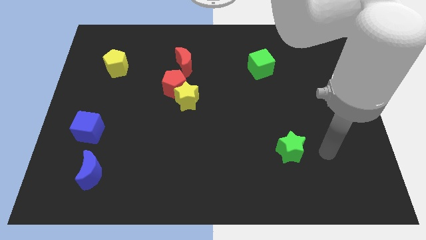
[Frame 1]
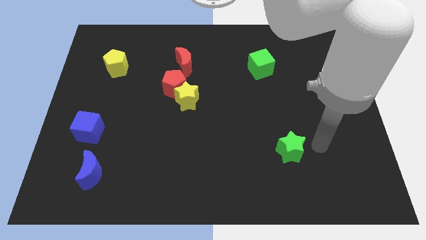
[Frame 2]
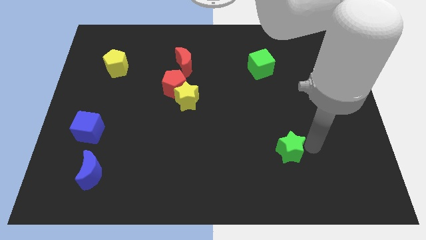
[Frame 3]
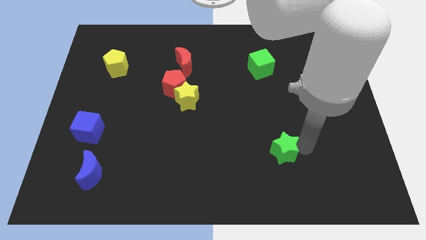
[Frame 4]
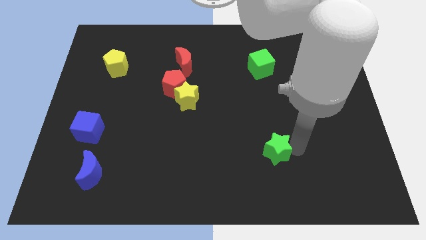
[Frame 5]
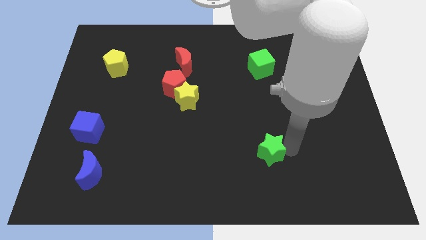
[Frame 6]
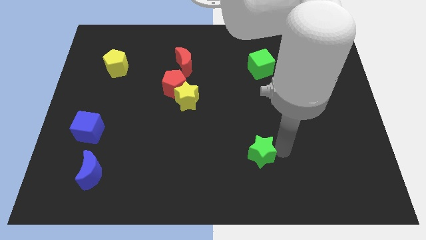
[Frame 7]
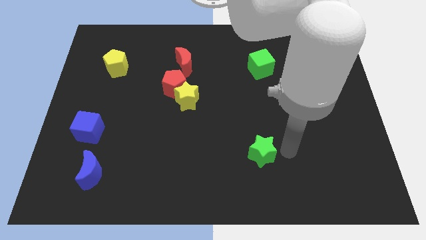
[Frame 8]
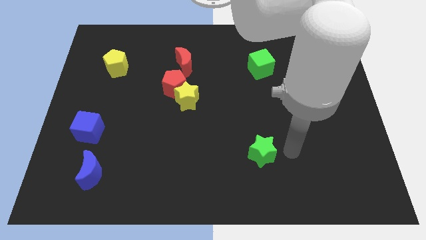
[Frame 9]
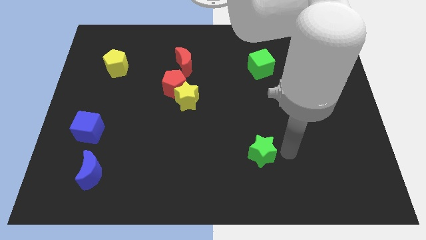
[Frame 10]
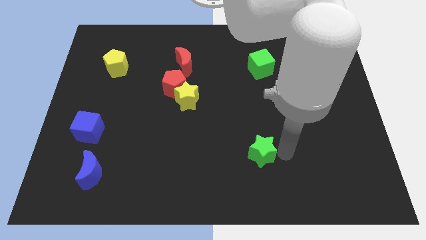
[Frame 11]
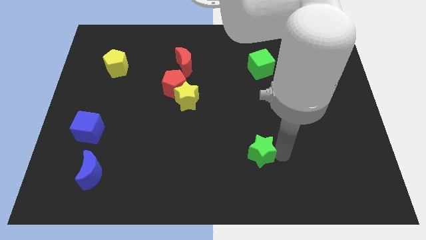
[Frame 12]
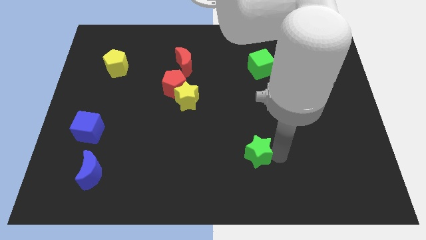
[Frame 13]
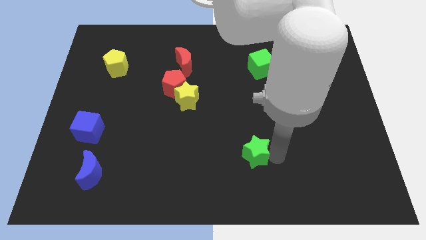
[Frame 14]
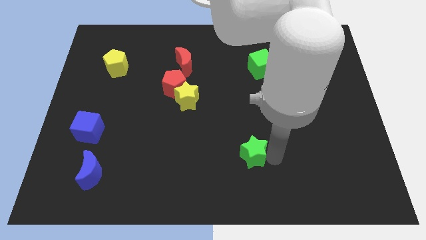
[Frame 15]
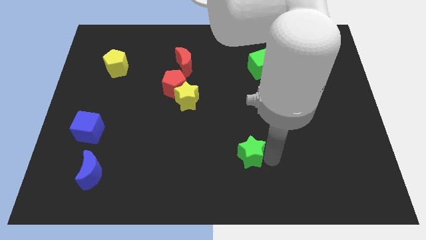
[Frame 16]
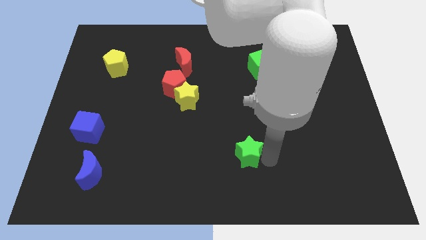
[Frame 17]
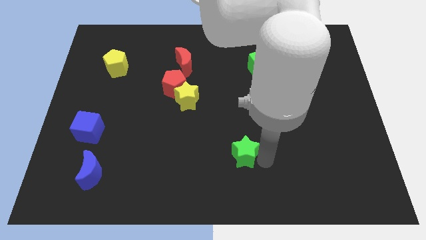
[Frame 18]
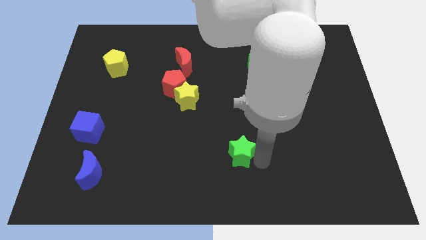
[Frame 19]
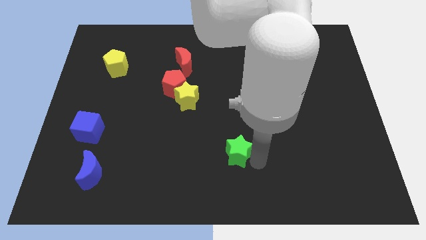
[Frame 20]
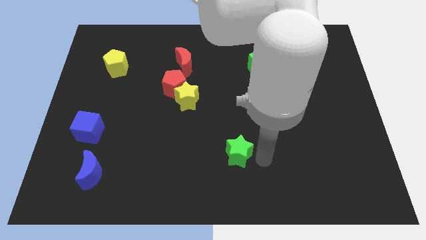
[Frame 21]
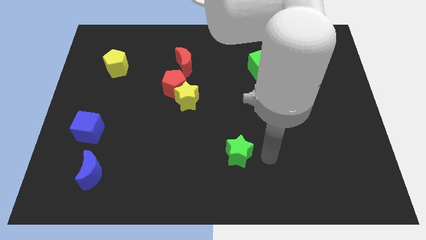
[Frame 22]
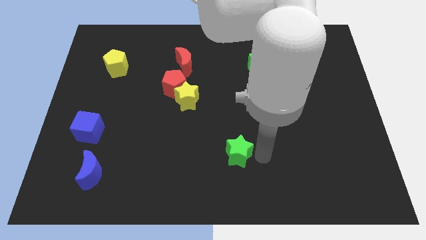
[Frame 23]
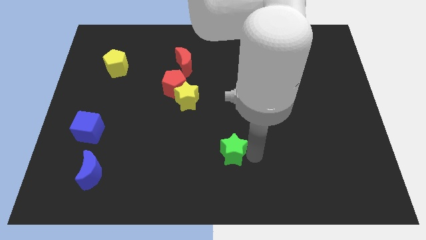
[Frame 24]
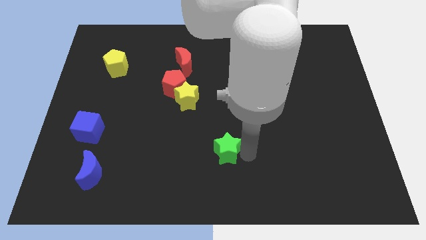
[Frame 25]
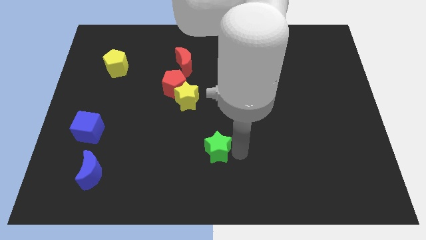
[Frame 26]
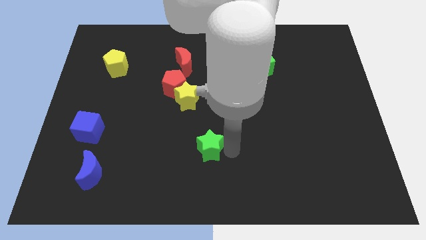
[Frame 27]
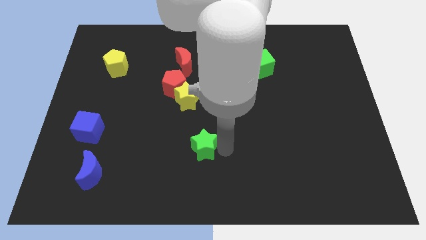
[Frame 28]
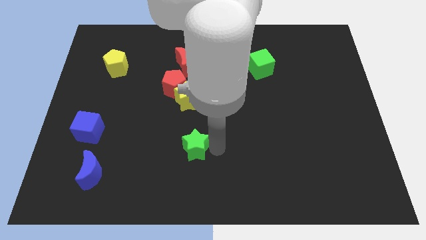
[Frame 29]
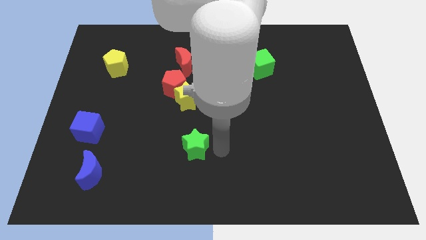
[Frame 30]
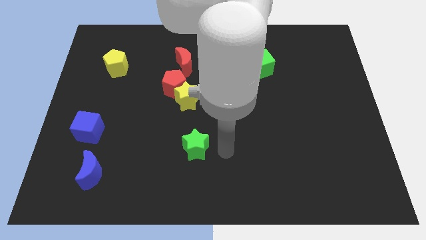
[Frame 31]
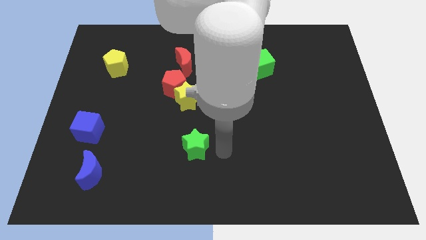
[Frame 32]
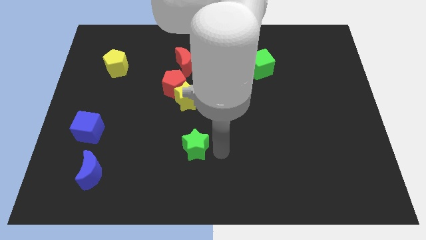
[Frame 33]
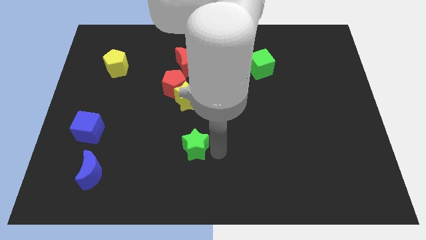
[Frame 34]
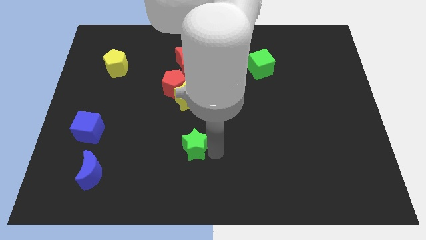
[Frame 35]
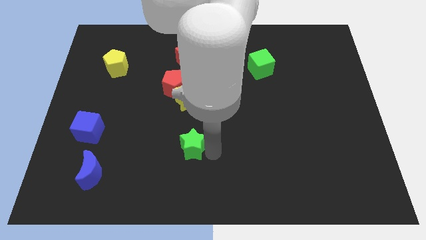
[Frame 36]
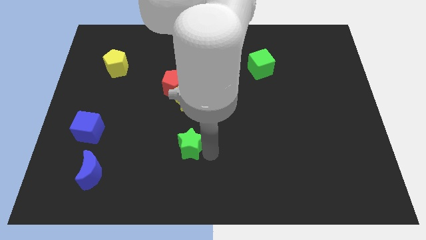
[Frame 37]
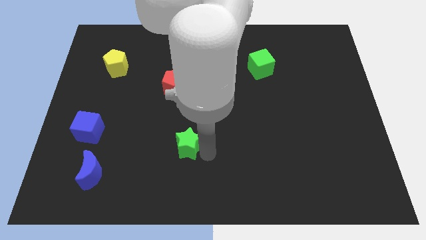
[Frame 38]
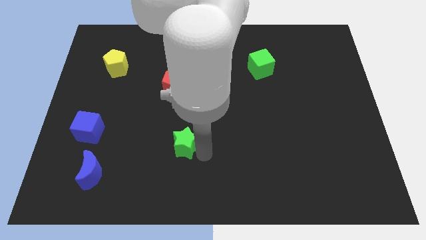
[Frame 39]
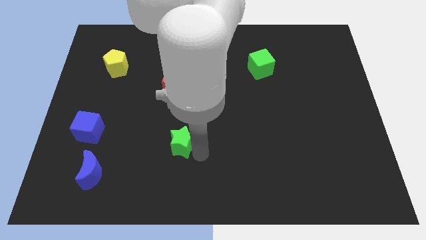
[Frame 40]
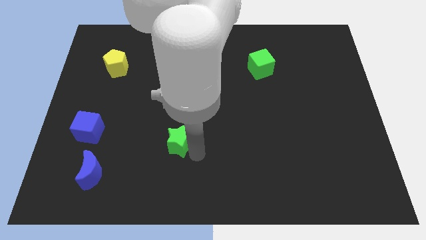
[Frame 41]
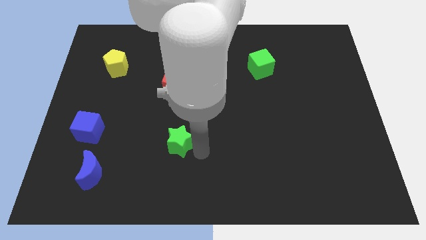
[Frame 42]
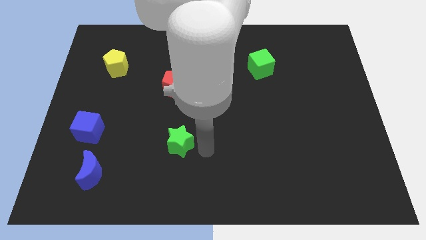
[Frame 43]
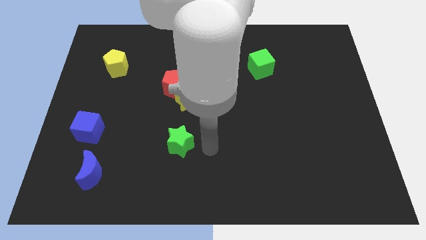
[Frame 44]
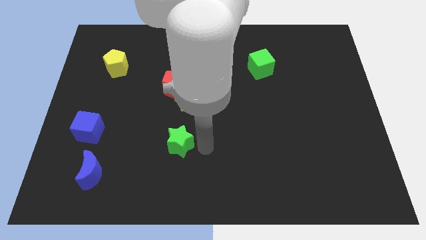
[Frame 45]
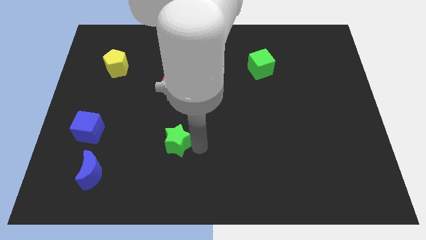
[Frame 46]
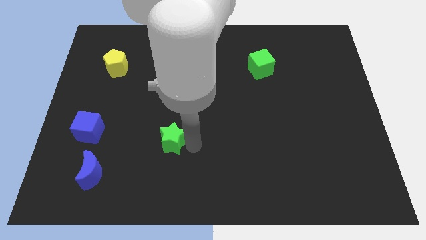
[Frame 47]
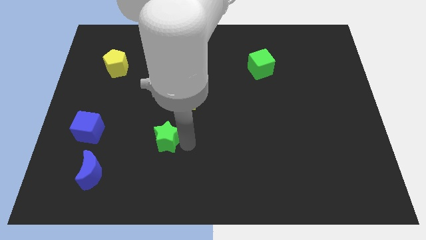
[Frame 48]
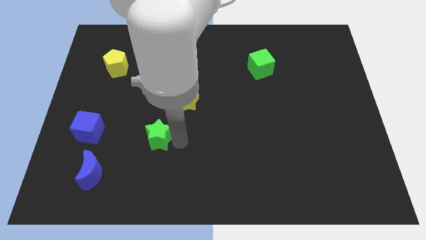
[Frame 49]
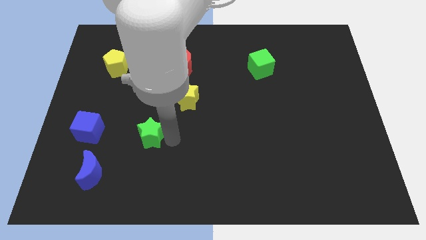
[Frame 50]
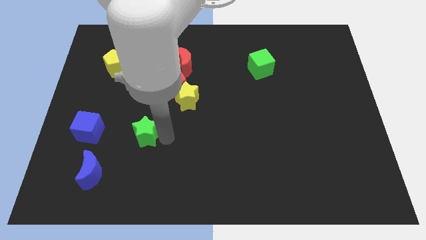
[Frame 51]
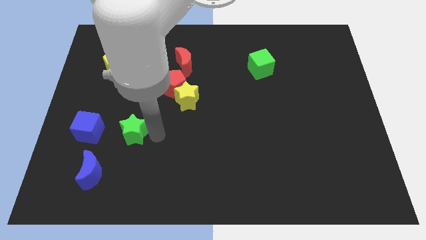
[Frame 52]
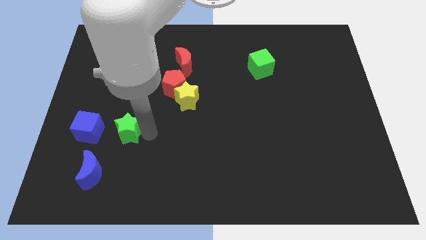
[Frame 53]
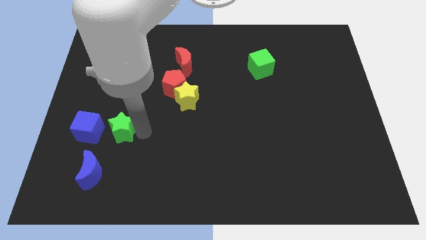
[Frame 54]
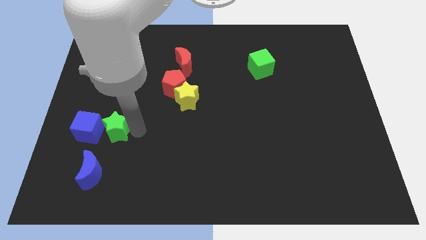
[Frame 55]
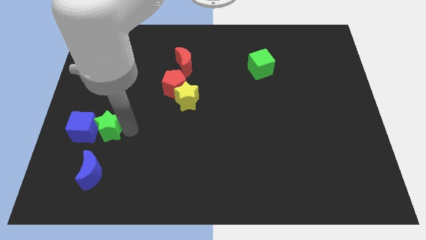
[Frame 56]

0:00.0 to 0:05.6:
move the green star towards the blue cube

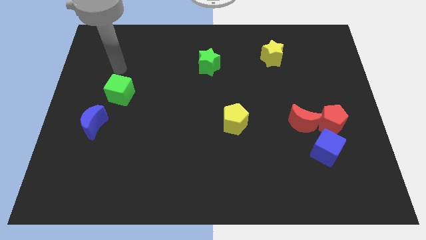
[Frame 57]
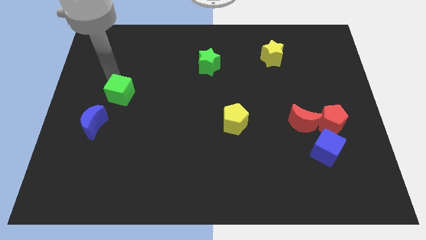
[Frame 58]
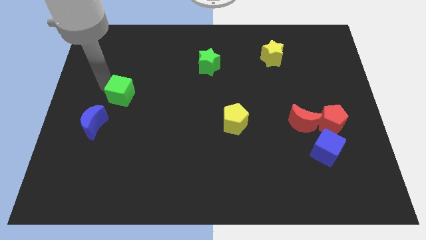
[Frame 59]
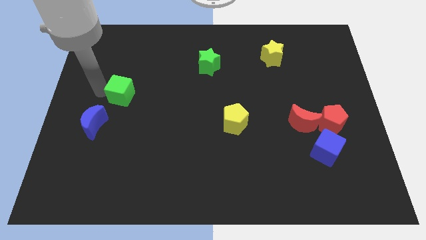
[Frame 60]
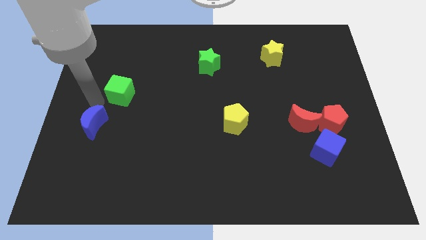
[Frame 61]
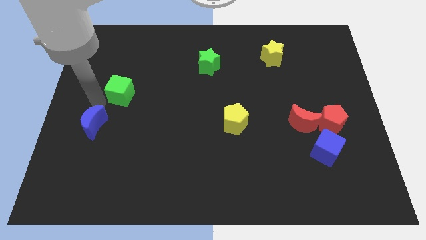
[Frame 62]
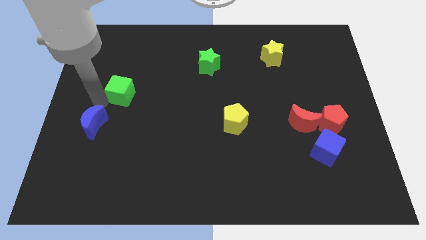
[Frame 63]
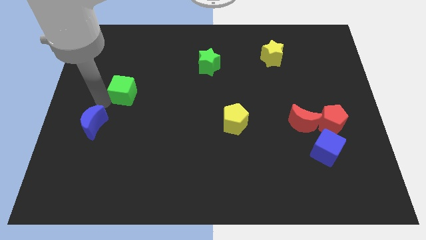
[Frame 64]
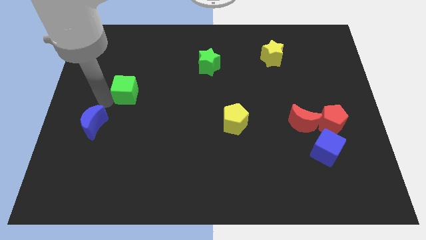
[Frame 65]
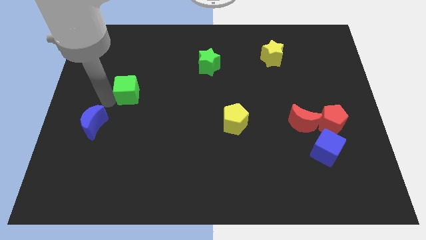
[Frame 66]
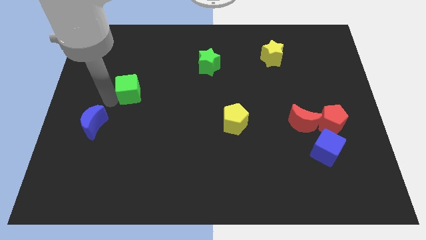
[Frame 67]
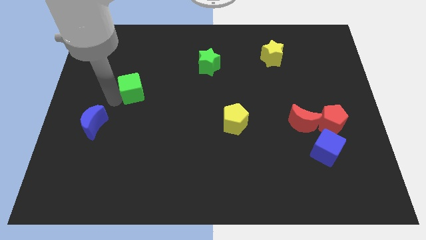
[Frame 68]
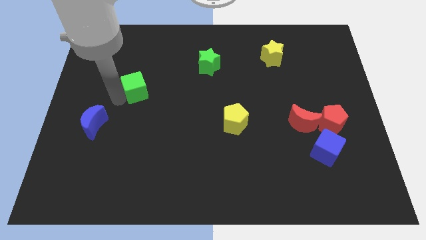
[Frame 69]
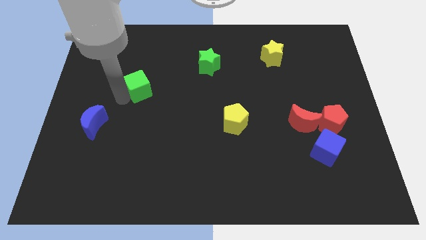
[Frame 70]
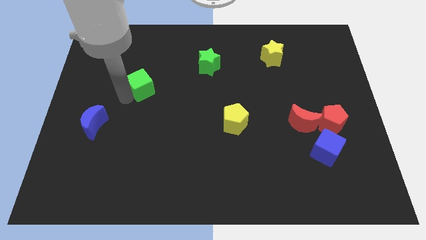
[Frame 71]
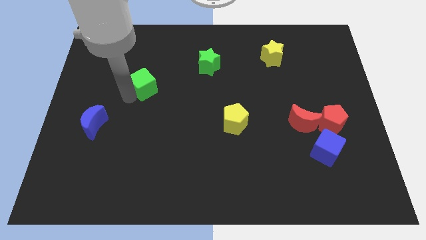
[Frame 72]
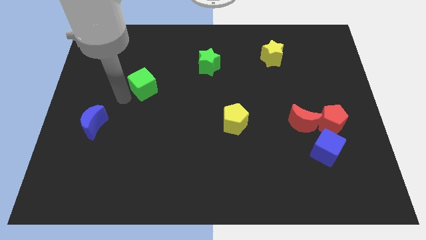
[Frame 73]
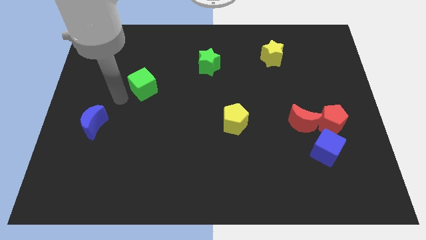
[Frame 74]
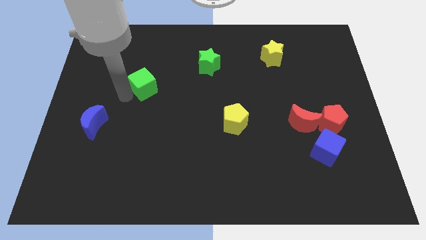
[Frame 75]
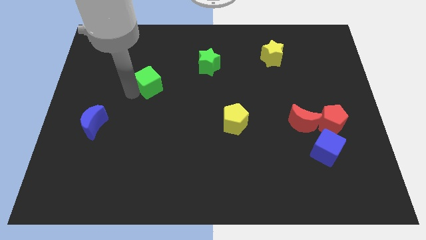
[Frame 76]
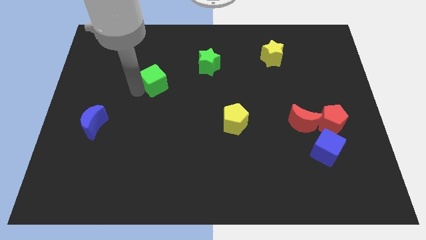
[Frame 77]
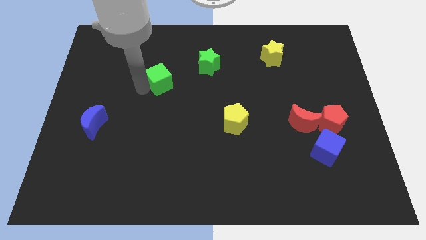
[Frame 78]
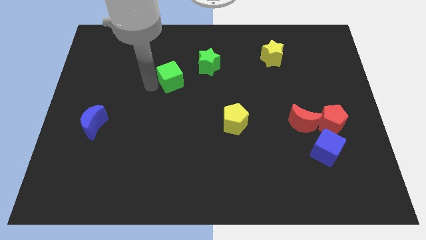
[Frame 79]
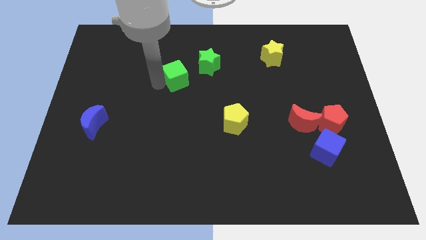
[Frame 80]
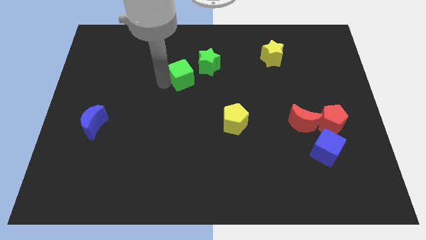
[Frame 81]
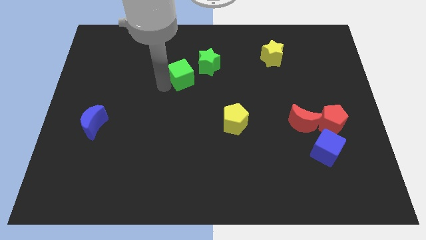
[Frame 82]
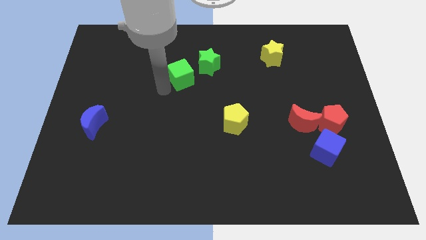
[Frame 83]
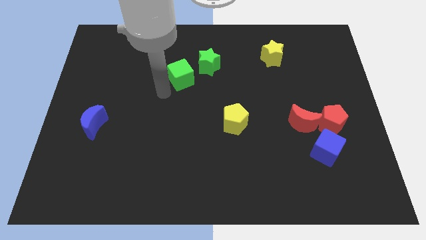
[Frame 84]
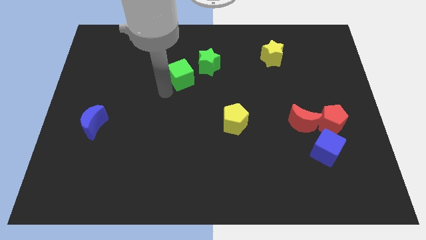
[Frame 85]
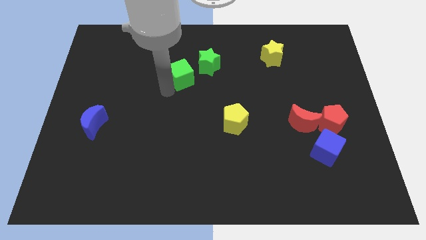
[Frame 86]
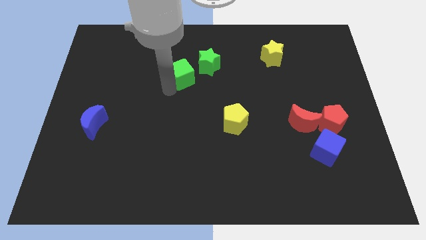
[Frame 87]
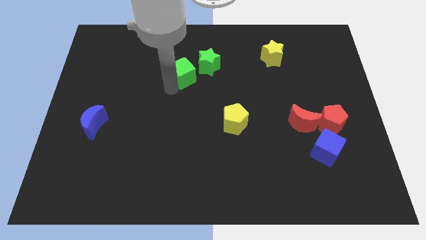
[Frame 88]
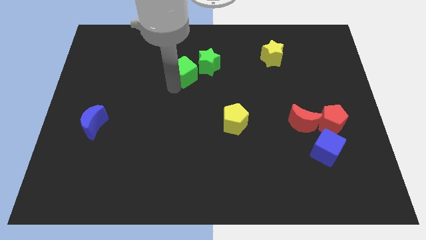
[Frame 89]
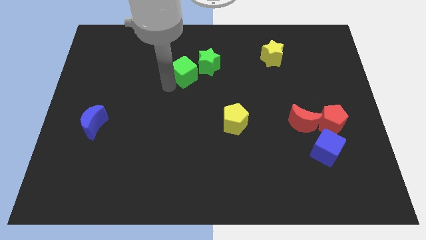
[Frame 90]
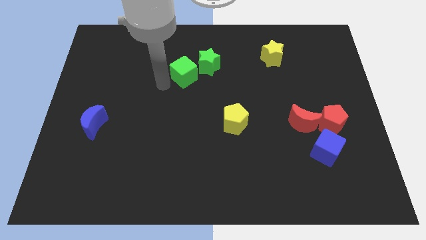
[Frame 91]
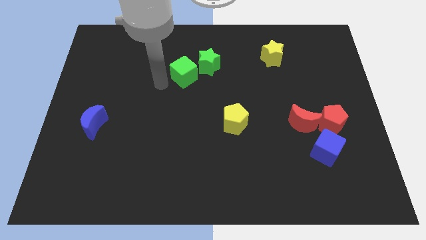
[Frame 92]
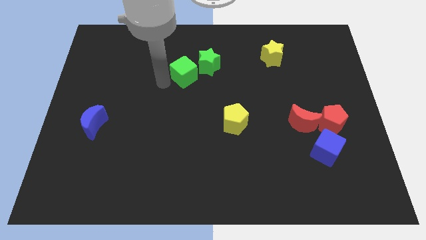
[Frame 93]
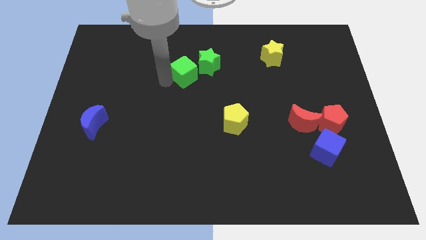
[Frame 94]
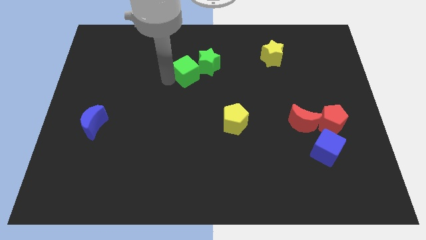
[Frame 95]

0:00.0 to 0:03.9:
put the green cube next to the green star
